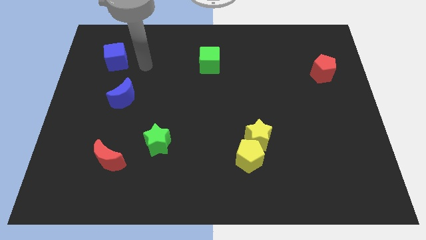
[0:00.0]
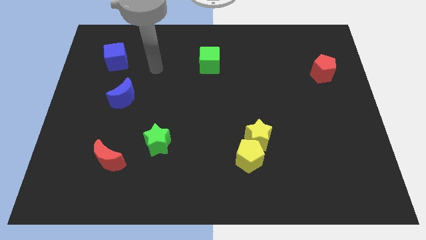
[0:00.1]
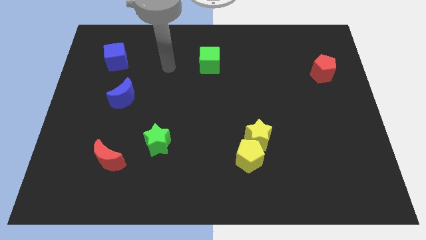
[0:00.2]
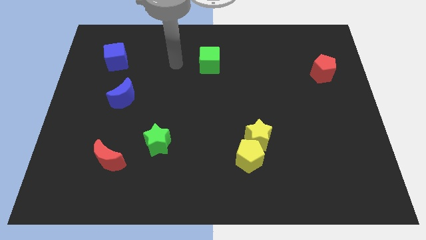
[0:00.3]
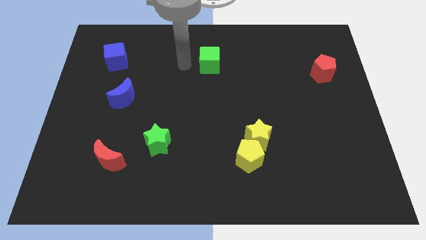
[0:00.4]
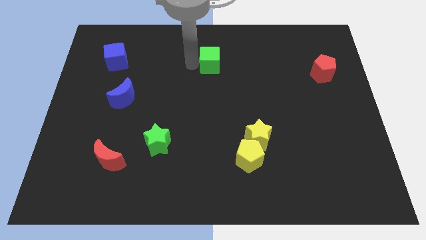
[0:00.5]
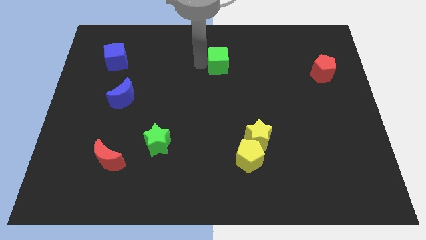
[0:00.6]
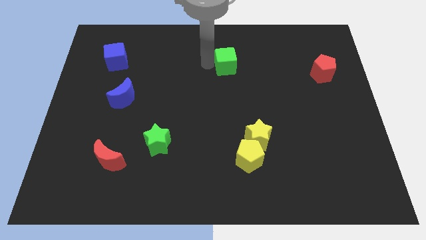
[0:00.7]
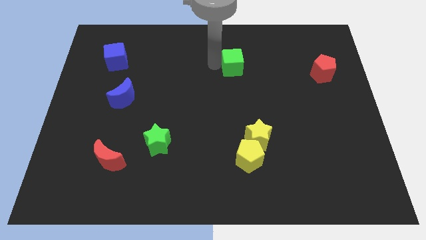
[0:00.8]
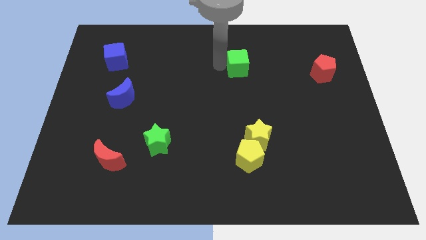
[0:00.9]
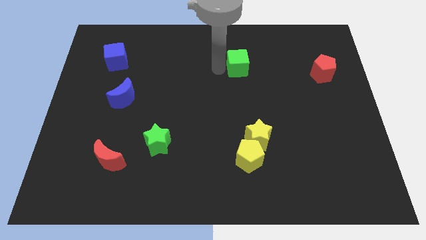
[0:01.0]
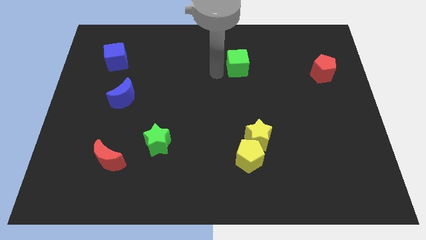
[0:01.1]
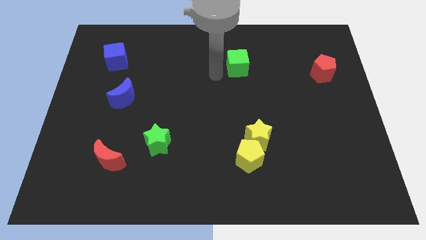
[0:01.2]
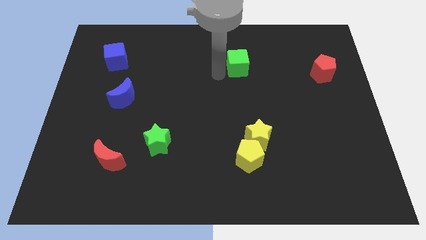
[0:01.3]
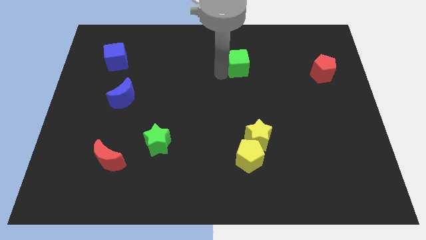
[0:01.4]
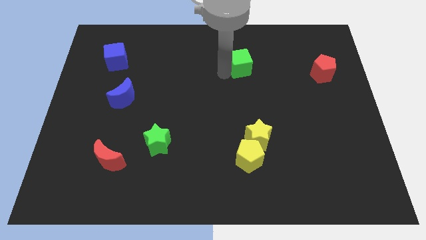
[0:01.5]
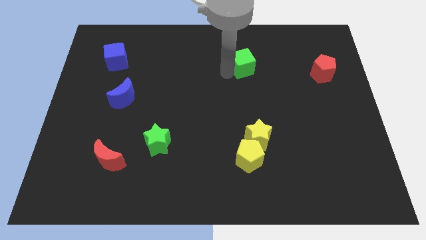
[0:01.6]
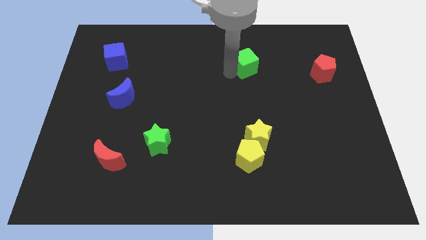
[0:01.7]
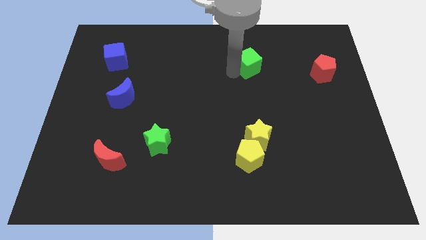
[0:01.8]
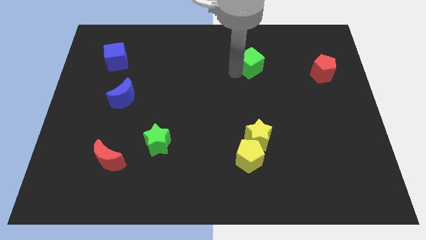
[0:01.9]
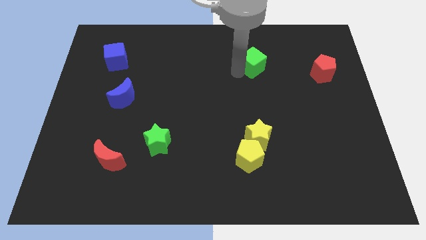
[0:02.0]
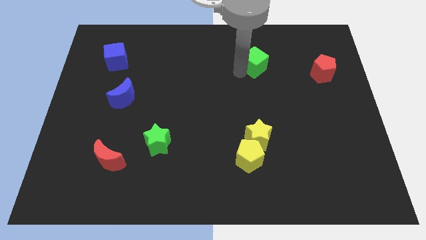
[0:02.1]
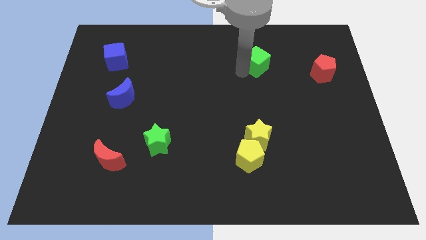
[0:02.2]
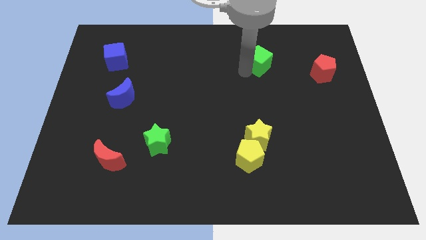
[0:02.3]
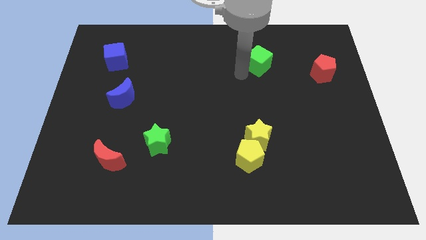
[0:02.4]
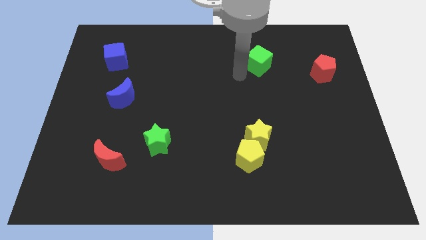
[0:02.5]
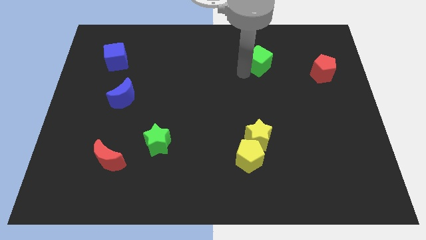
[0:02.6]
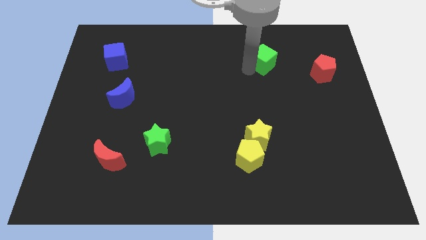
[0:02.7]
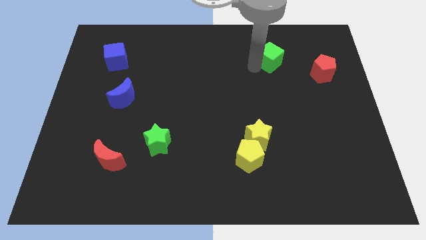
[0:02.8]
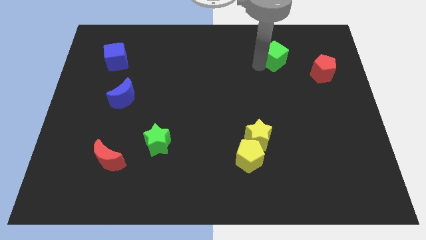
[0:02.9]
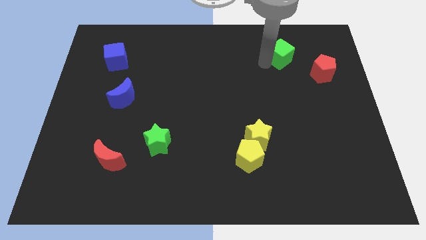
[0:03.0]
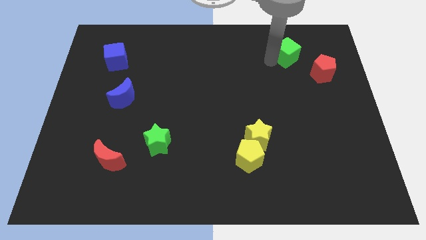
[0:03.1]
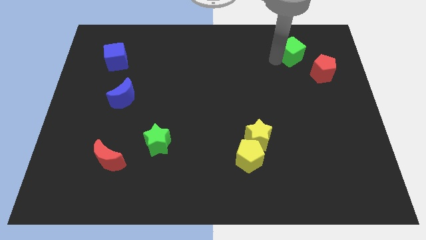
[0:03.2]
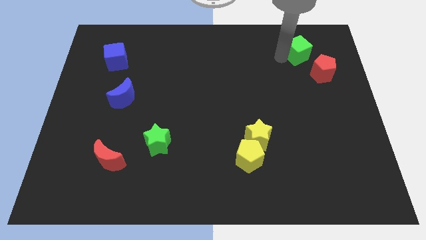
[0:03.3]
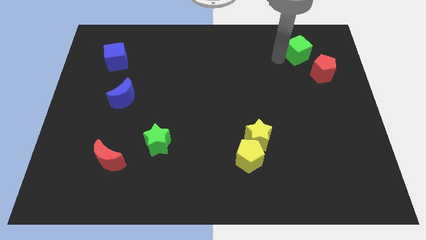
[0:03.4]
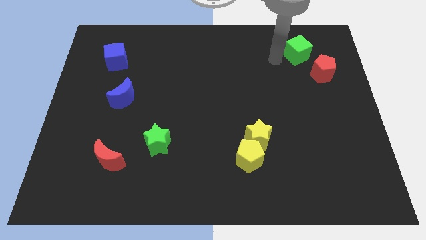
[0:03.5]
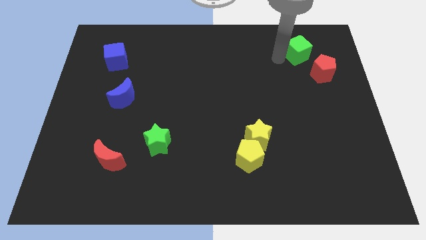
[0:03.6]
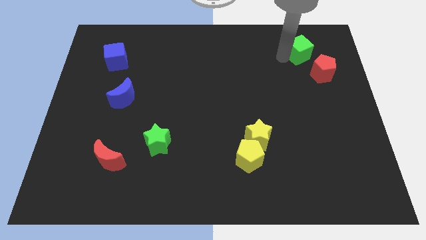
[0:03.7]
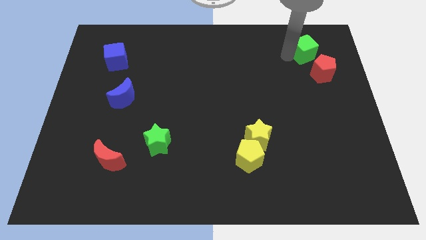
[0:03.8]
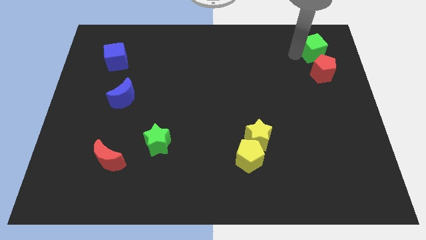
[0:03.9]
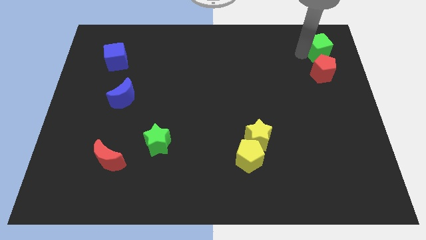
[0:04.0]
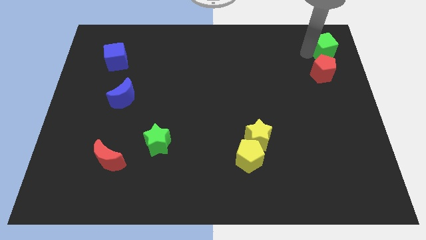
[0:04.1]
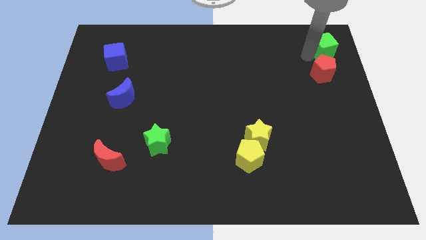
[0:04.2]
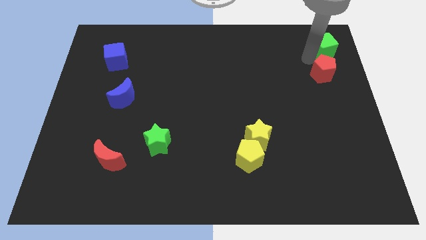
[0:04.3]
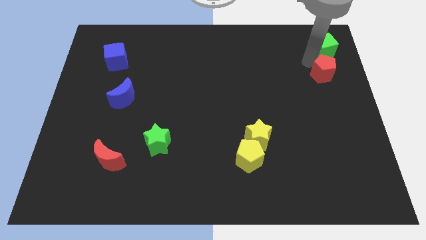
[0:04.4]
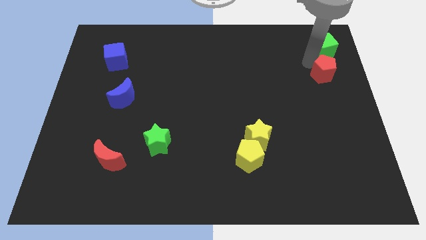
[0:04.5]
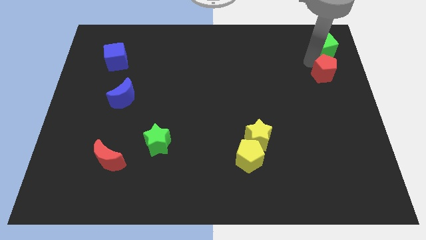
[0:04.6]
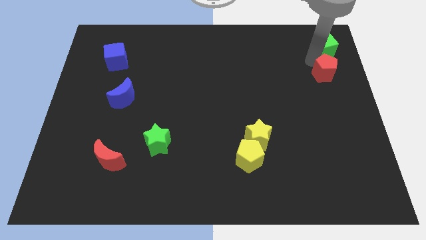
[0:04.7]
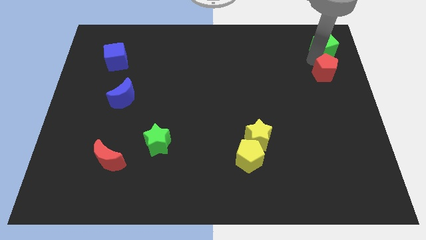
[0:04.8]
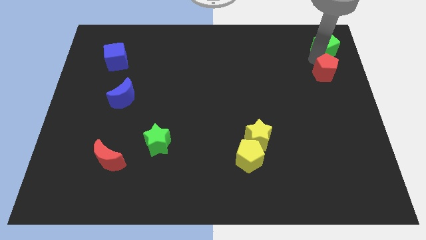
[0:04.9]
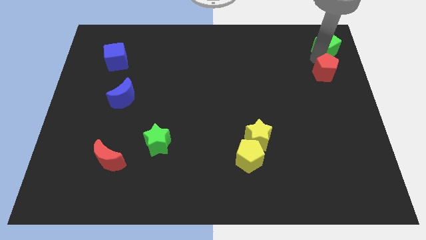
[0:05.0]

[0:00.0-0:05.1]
put the green cube to the top right corner

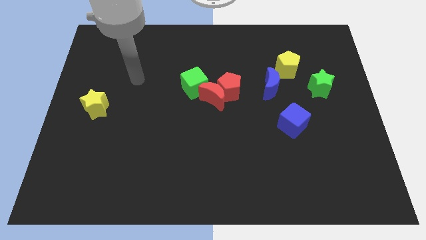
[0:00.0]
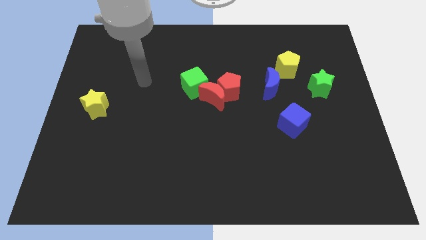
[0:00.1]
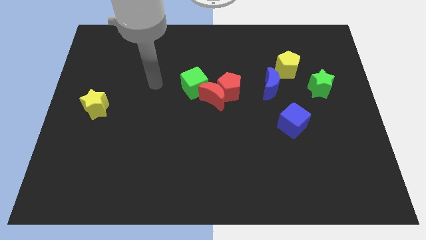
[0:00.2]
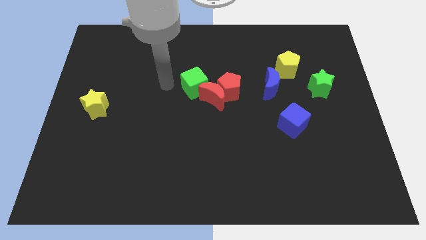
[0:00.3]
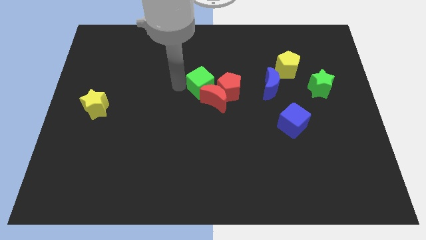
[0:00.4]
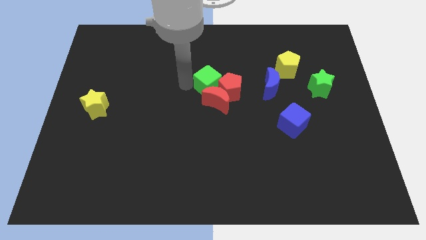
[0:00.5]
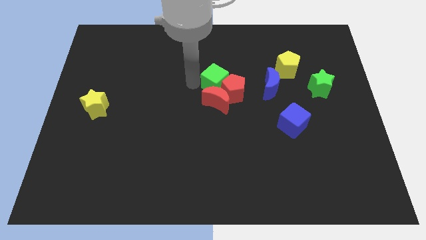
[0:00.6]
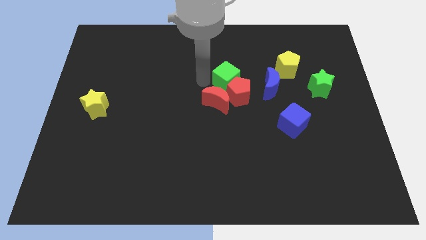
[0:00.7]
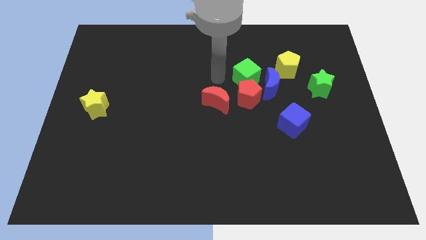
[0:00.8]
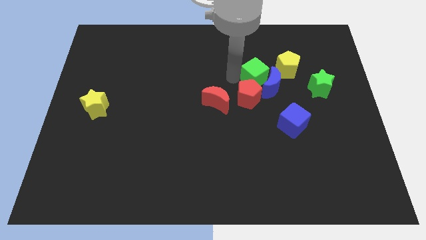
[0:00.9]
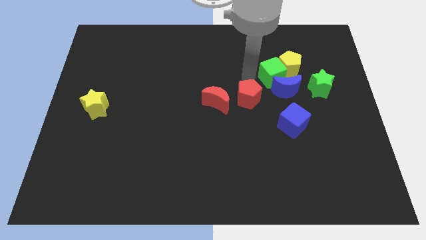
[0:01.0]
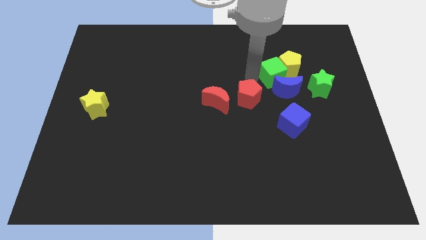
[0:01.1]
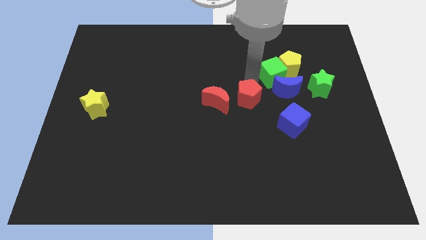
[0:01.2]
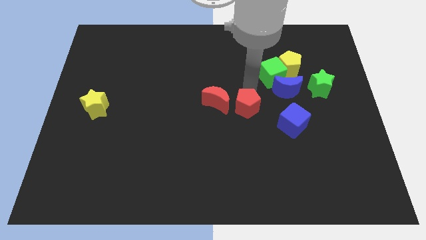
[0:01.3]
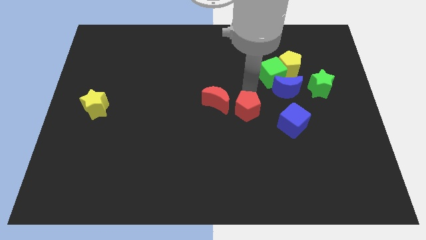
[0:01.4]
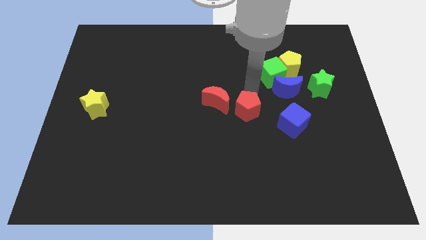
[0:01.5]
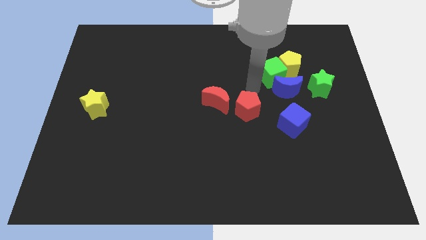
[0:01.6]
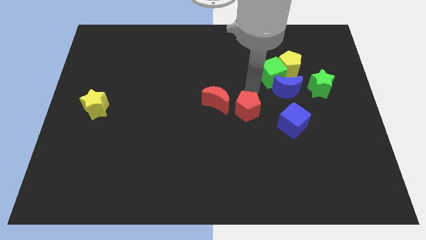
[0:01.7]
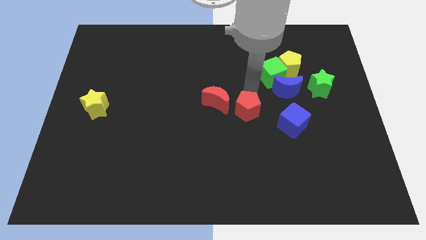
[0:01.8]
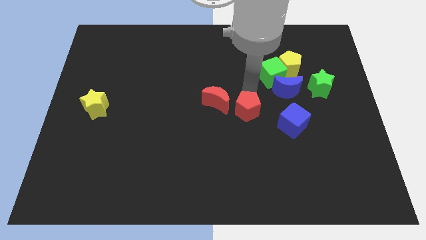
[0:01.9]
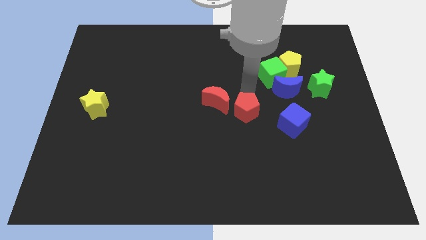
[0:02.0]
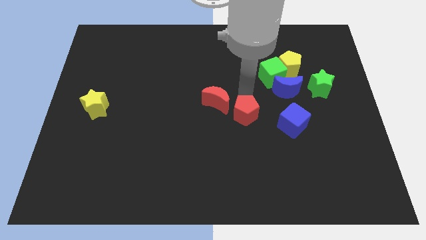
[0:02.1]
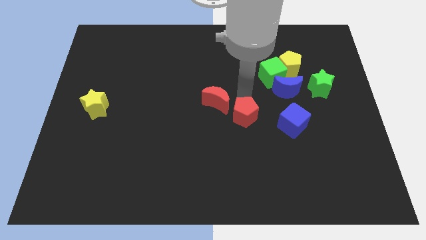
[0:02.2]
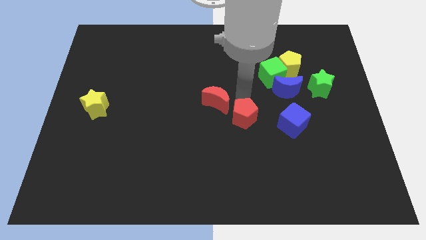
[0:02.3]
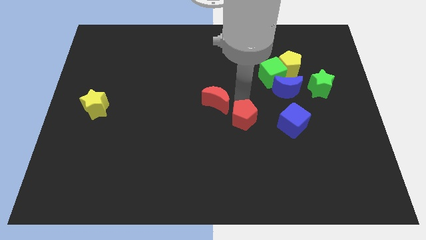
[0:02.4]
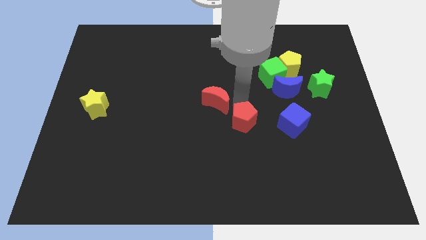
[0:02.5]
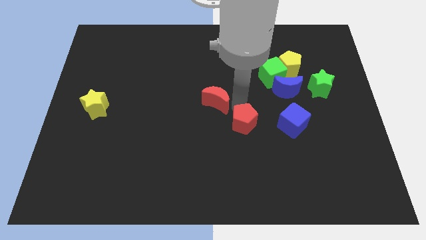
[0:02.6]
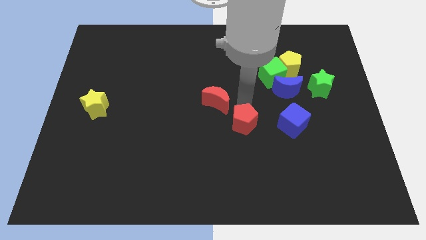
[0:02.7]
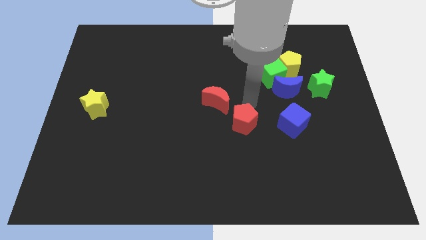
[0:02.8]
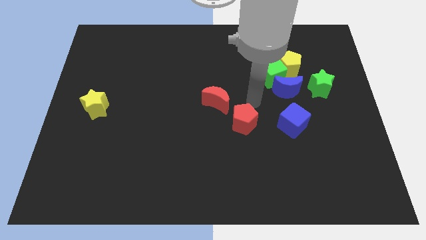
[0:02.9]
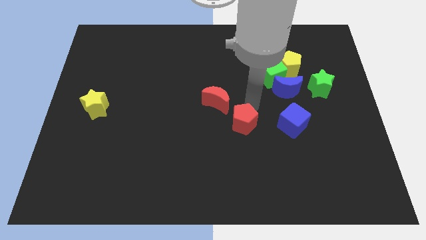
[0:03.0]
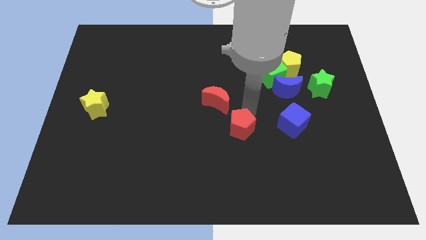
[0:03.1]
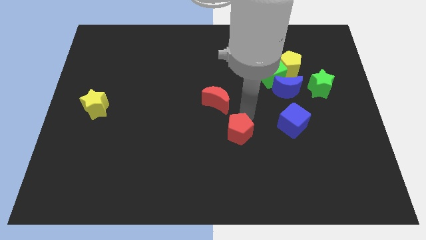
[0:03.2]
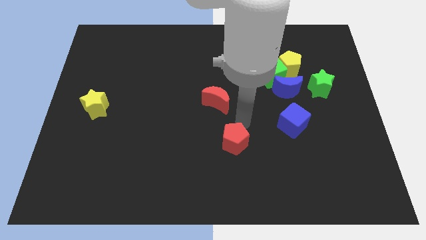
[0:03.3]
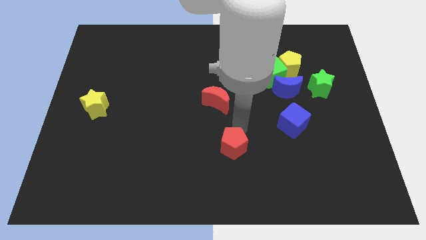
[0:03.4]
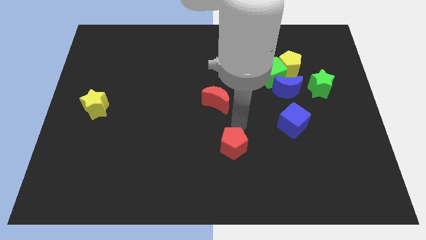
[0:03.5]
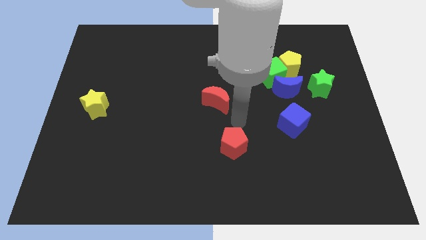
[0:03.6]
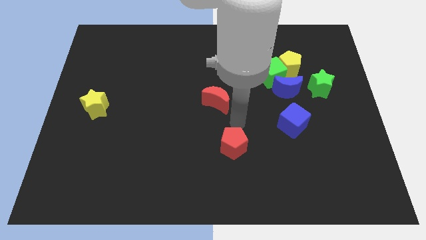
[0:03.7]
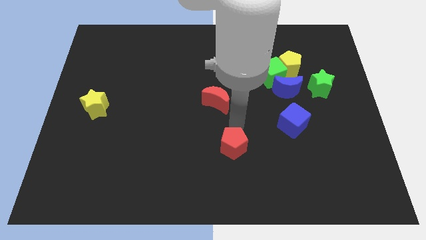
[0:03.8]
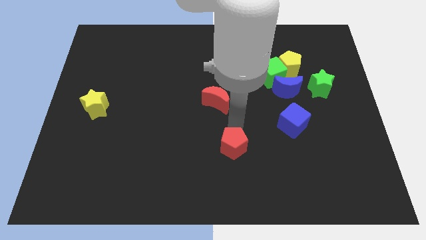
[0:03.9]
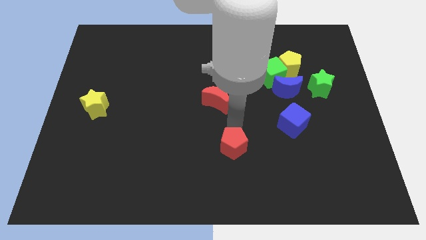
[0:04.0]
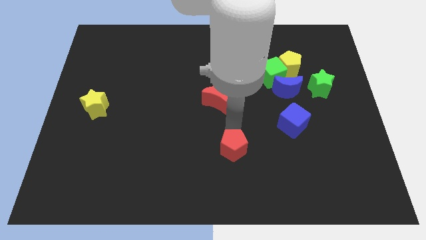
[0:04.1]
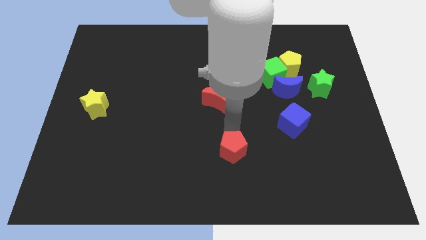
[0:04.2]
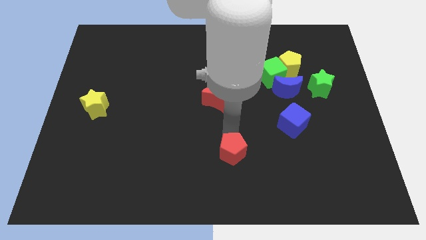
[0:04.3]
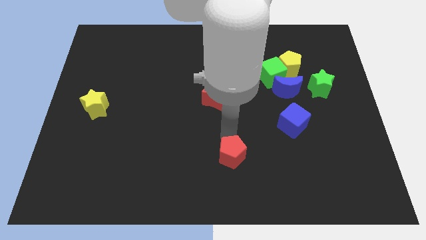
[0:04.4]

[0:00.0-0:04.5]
put the red pentagon to the bottom
